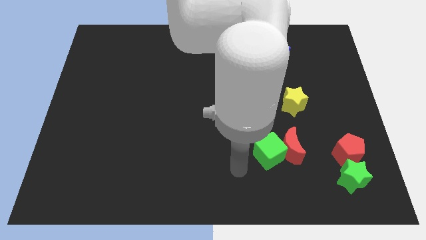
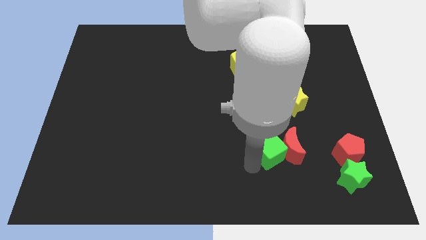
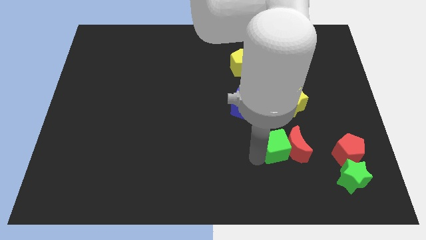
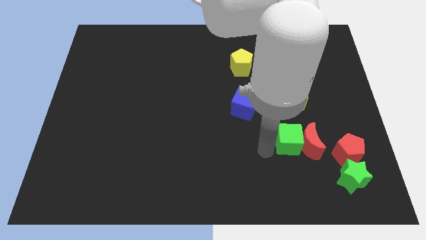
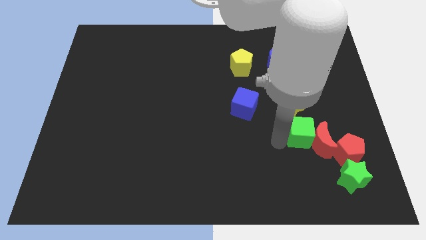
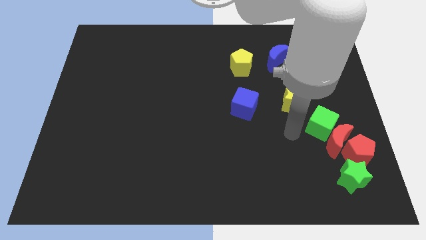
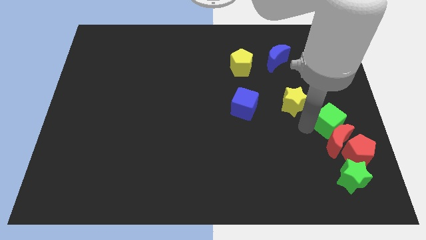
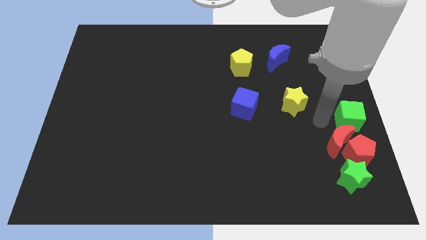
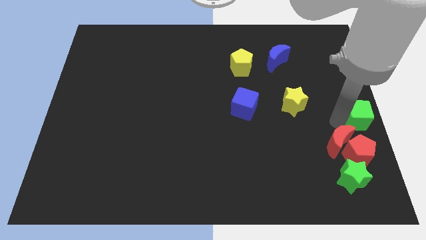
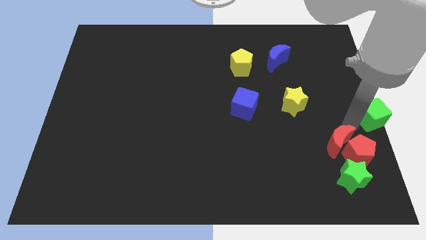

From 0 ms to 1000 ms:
separate the red moon from the green cube

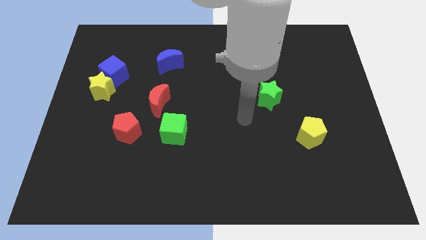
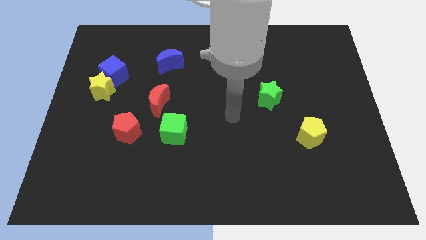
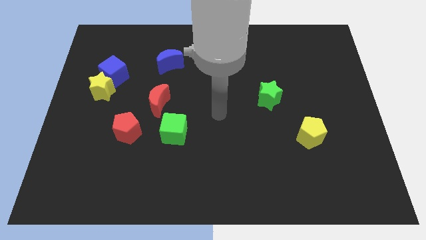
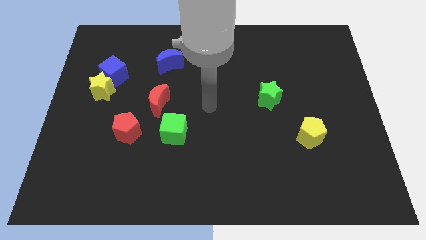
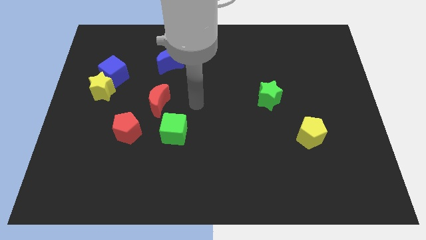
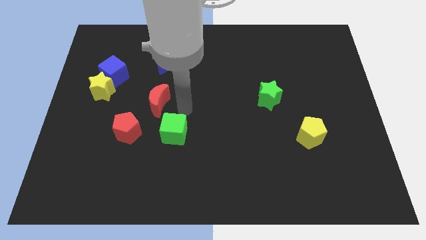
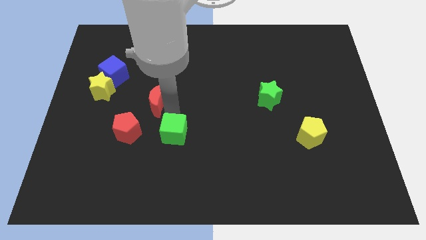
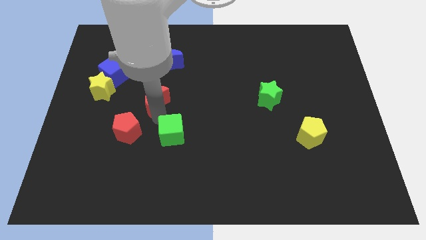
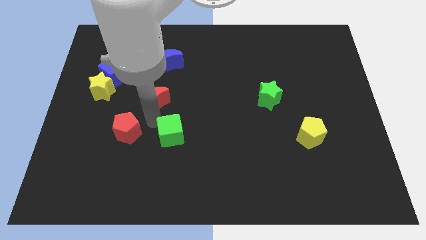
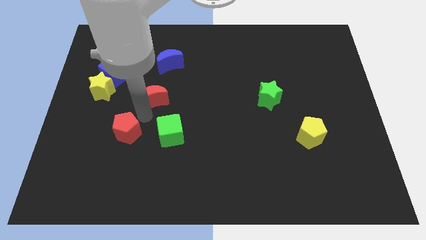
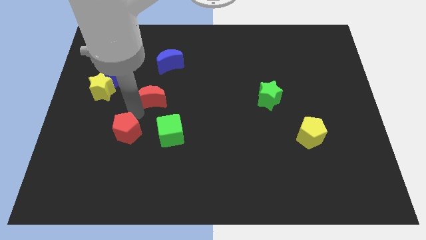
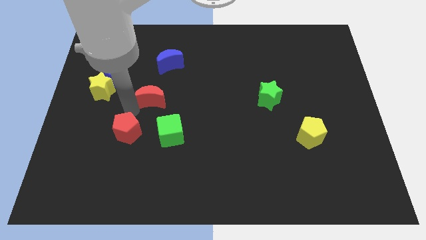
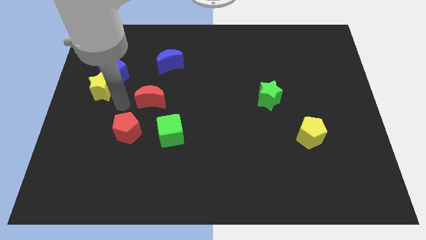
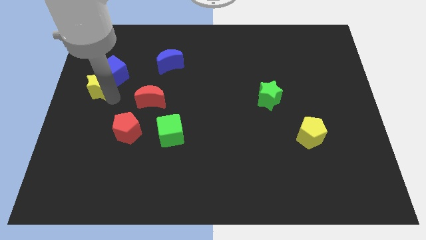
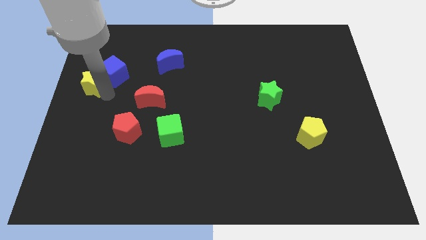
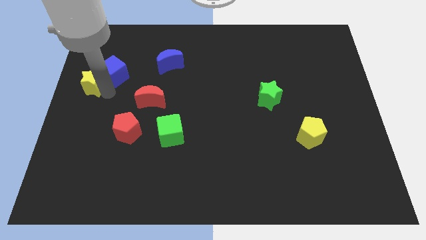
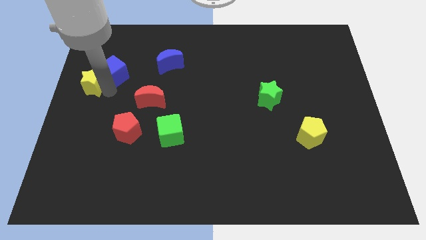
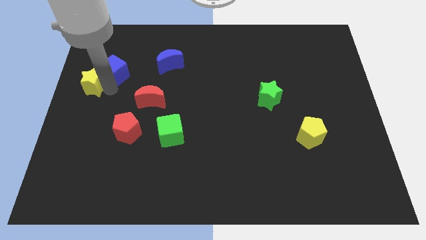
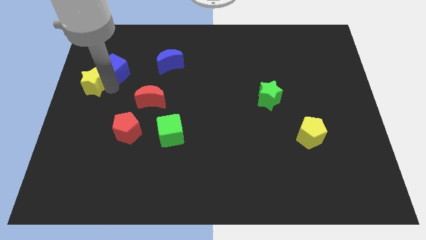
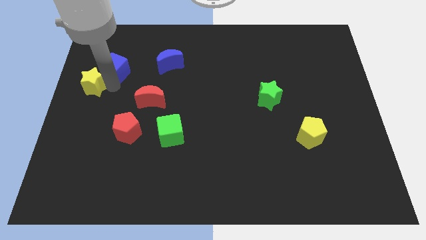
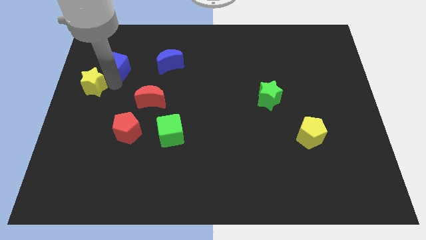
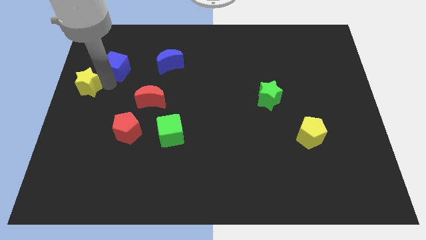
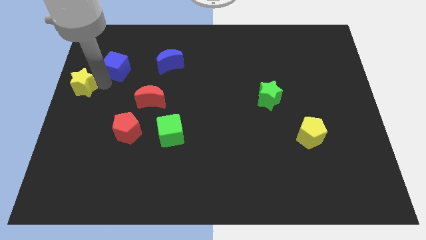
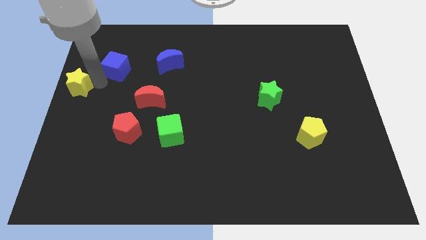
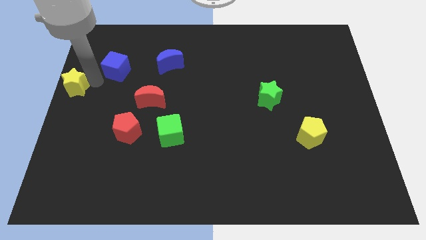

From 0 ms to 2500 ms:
pull the blue cube apart from the yellow star

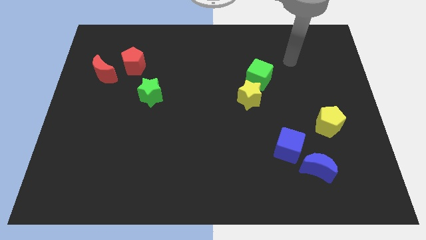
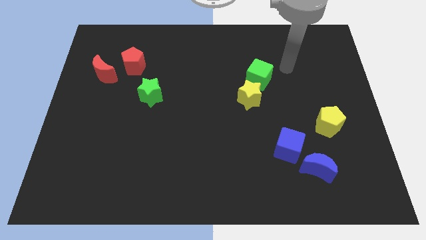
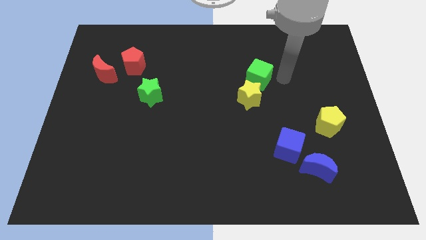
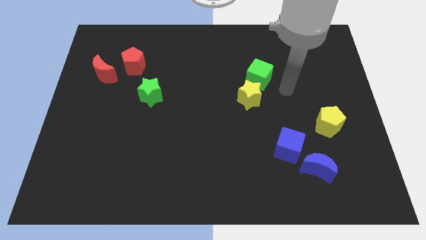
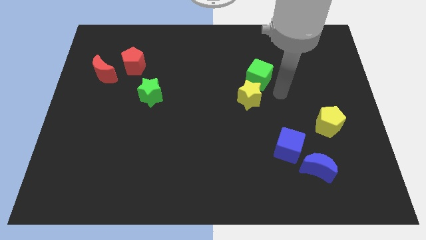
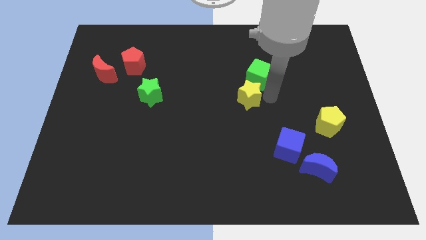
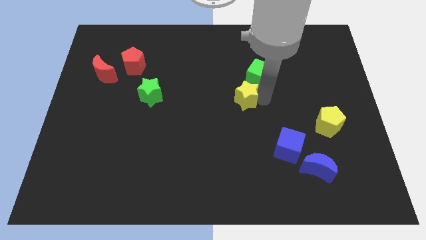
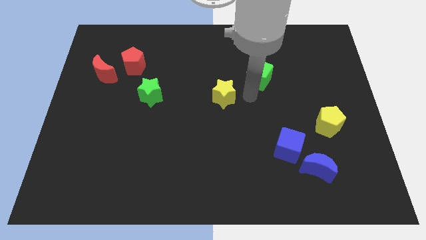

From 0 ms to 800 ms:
pull the green cube apart from the yellow star

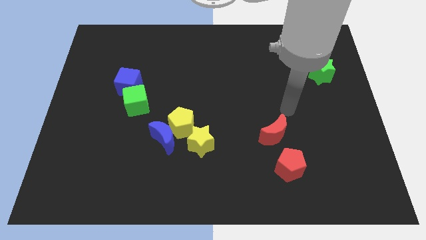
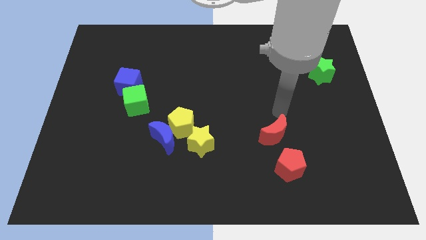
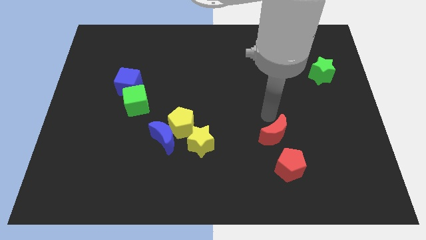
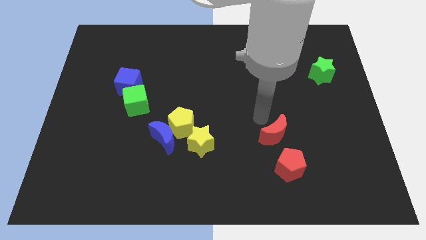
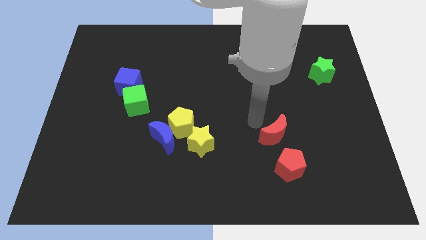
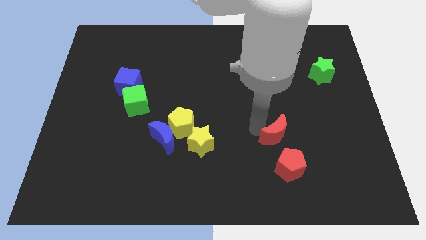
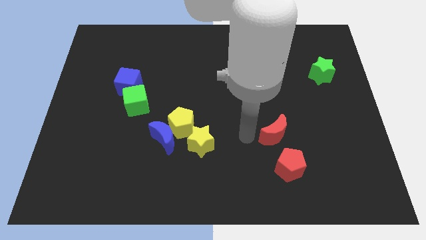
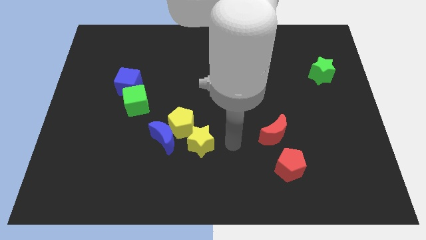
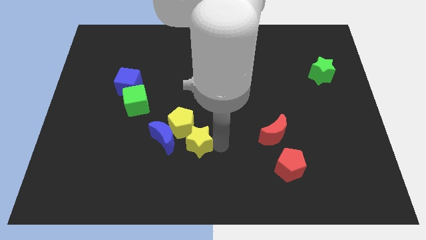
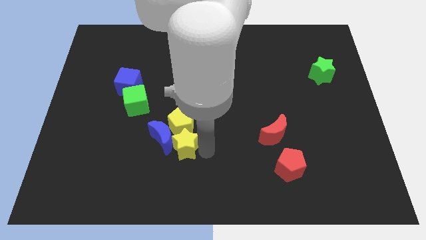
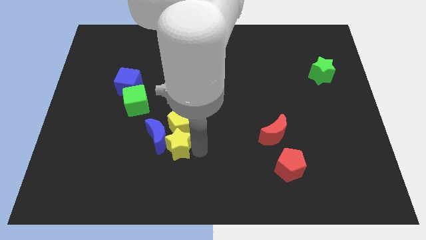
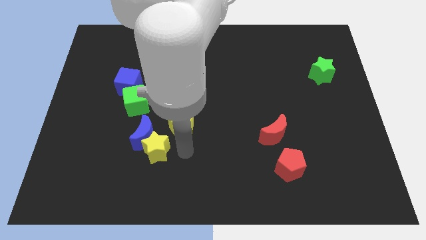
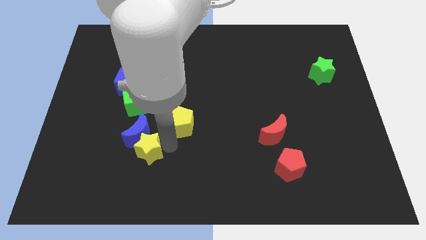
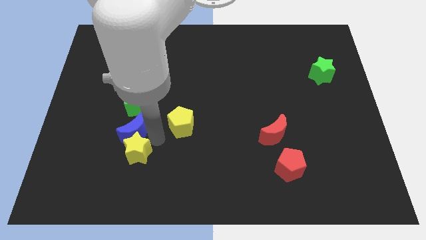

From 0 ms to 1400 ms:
separate the yellow pentagon from the blue moon and yellow star

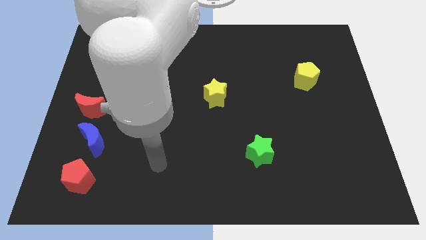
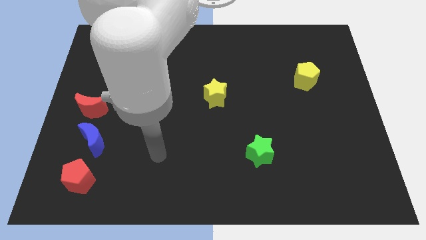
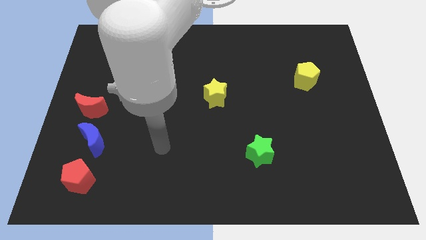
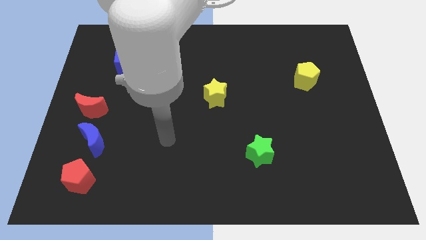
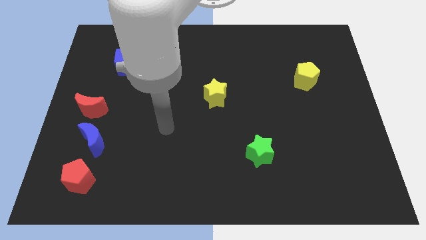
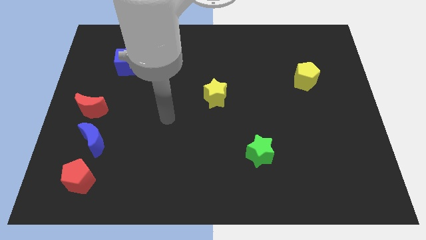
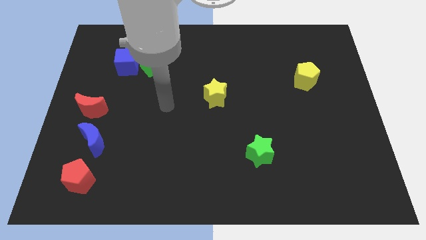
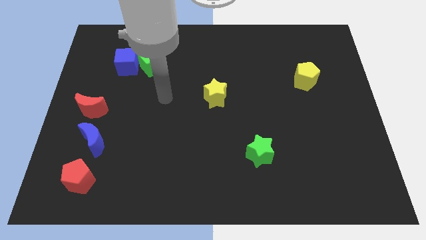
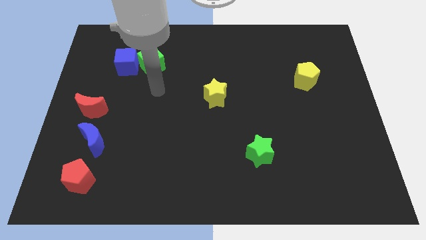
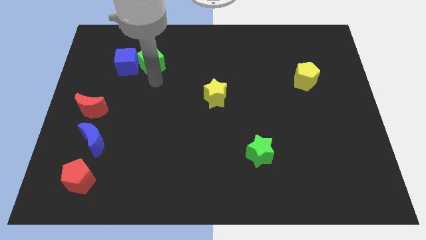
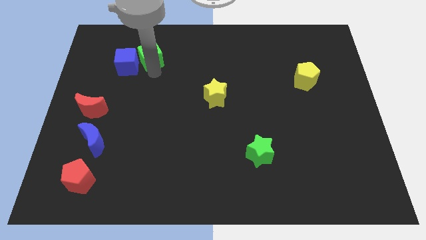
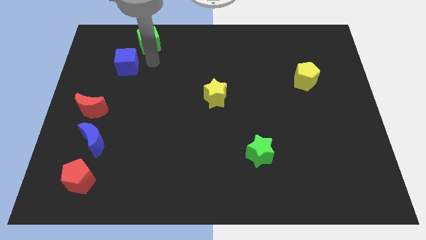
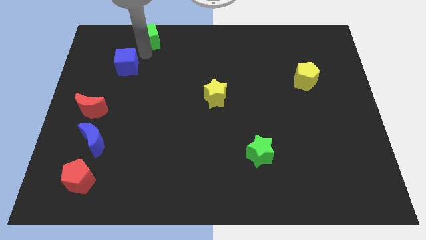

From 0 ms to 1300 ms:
move the blue cube away from the green cube

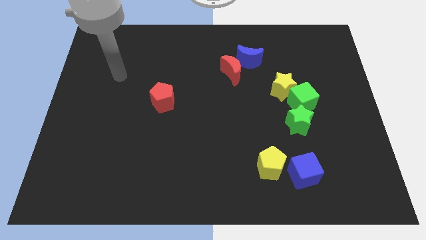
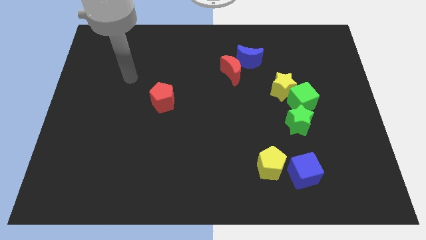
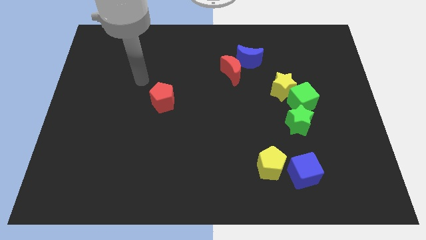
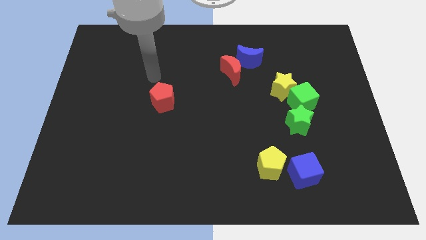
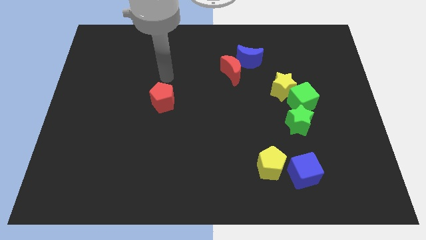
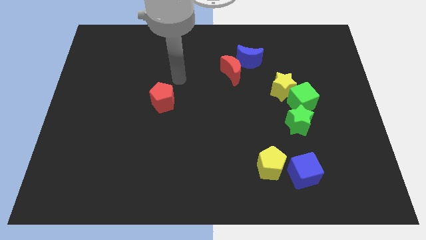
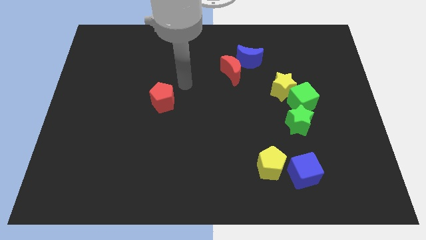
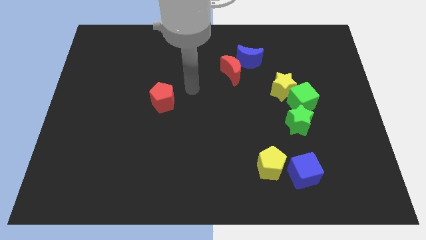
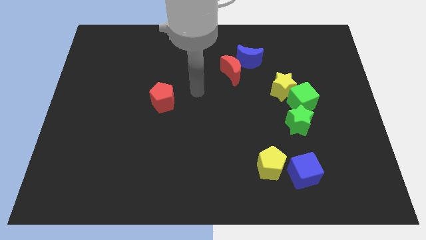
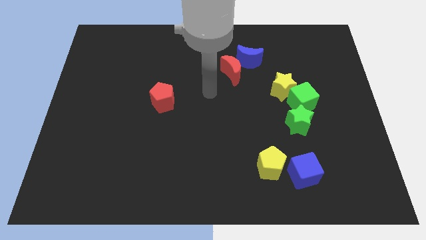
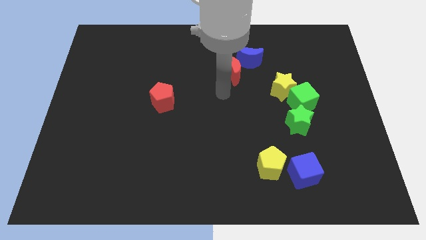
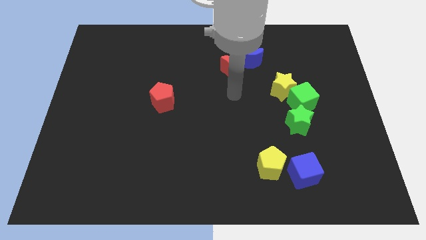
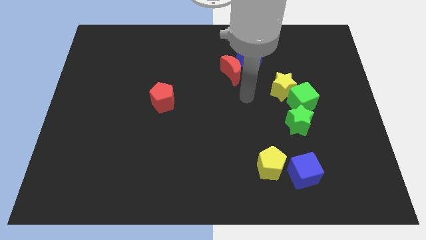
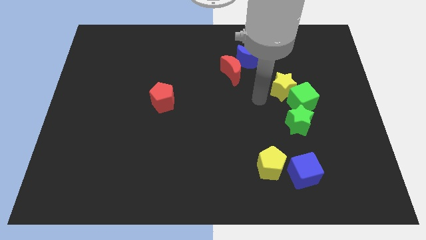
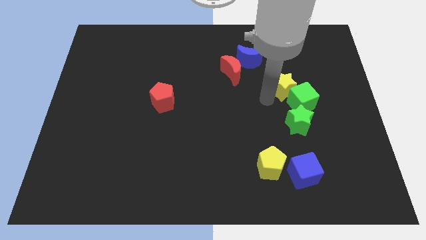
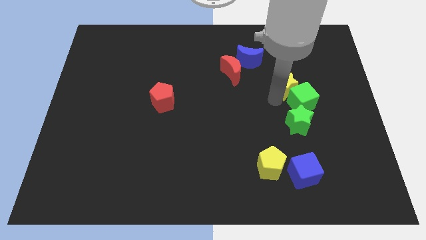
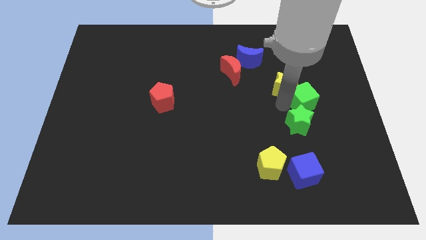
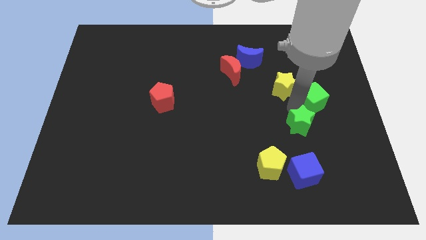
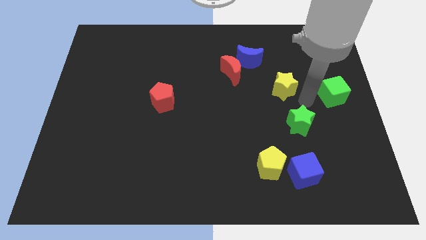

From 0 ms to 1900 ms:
separate the yellow star from the green cube

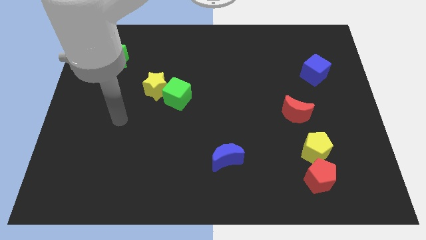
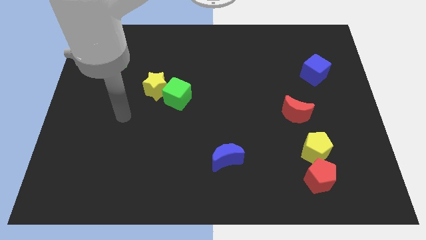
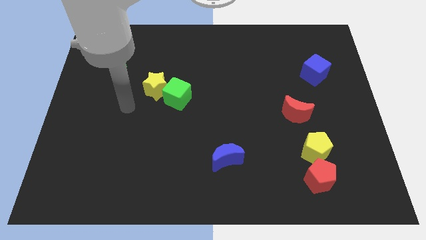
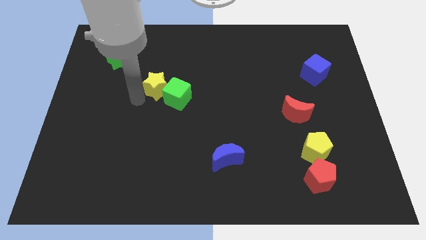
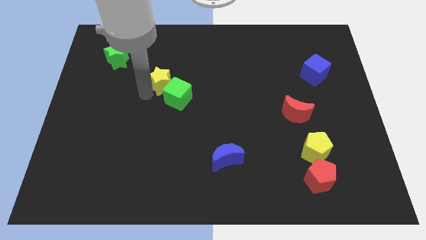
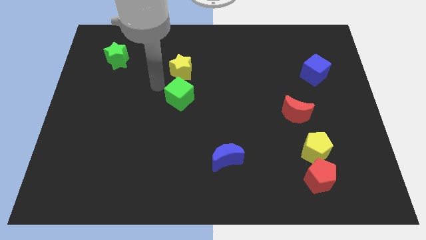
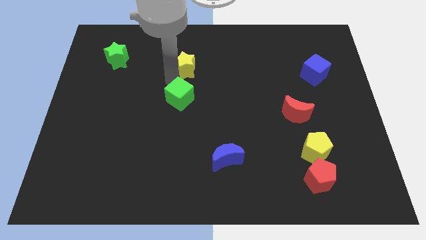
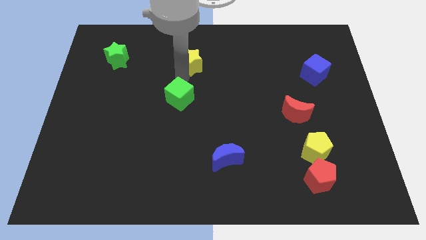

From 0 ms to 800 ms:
separate the green cube from the yellow star
